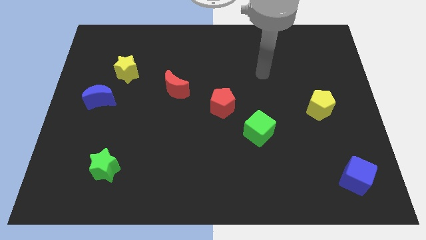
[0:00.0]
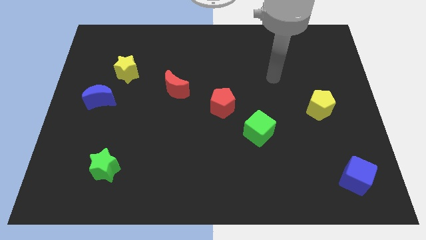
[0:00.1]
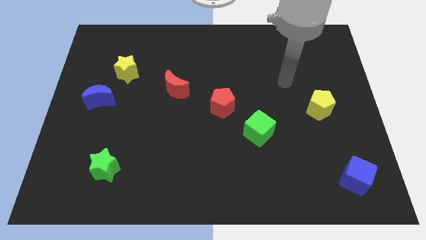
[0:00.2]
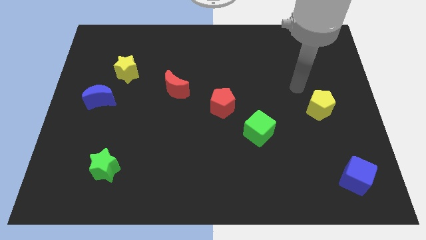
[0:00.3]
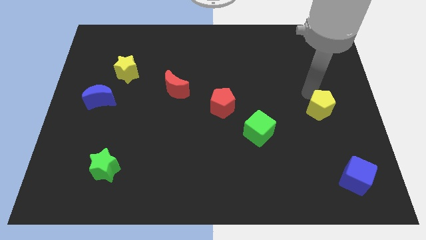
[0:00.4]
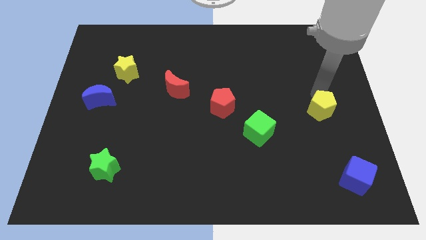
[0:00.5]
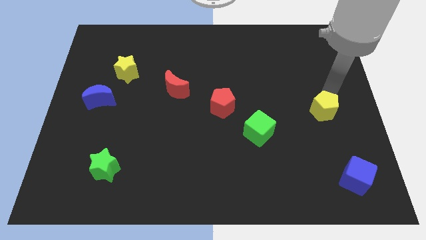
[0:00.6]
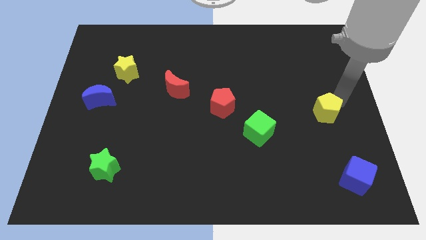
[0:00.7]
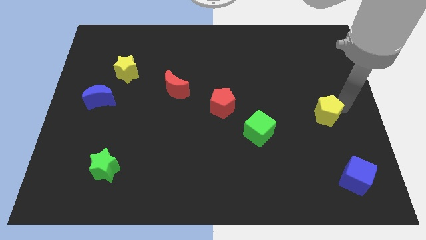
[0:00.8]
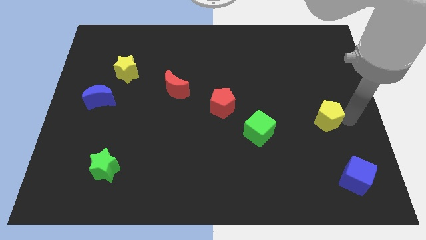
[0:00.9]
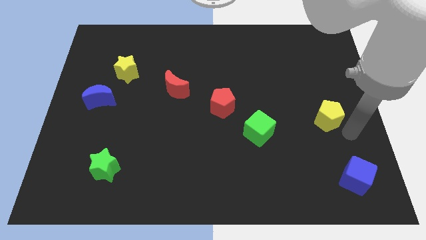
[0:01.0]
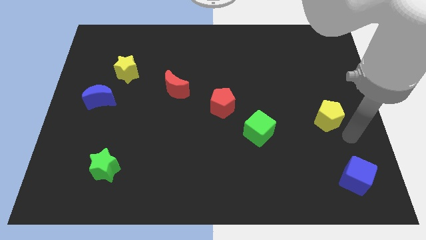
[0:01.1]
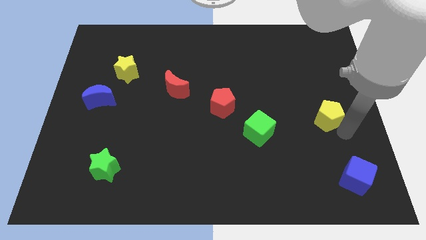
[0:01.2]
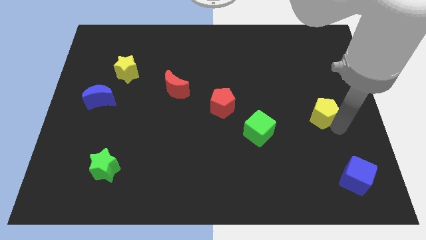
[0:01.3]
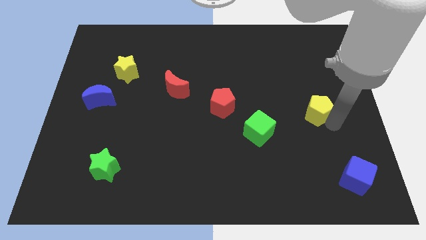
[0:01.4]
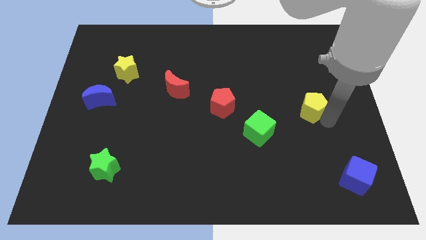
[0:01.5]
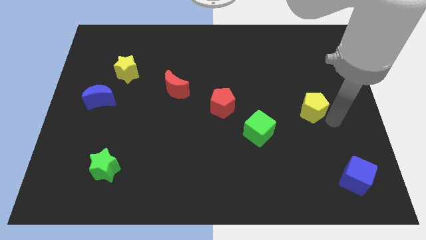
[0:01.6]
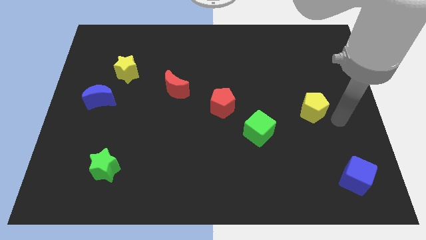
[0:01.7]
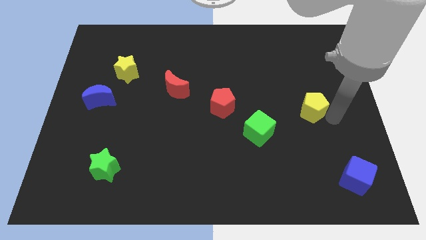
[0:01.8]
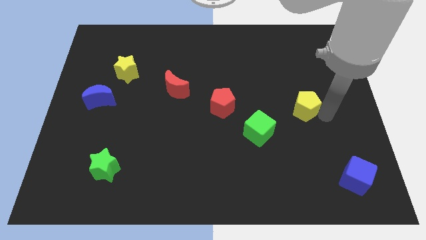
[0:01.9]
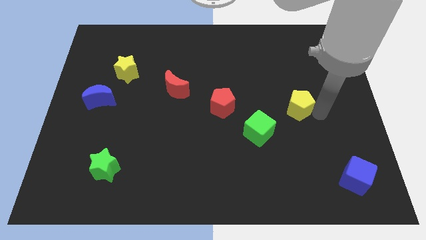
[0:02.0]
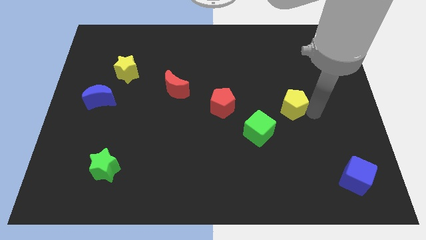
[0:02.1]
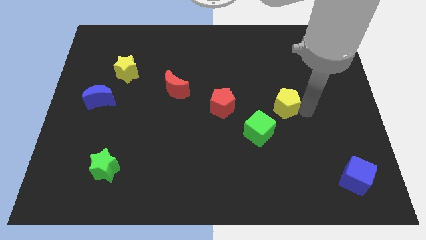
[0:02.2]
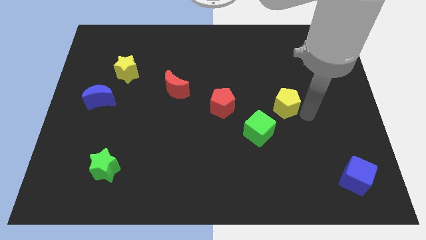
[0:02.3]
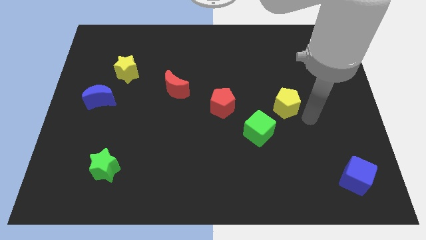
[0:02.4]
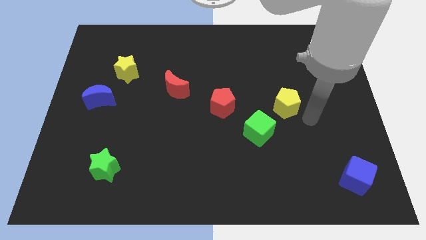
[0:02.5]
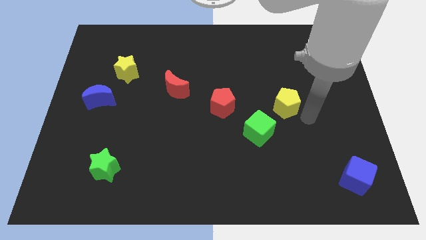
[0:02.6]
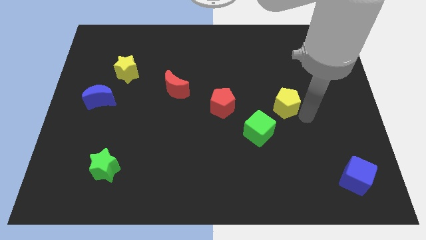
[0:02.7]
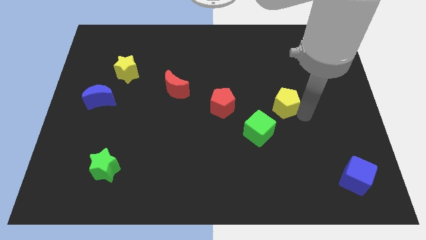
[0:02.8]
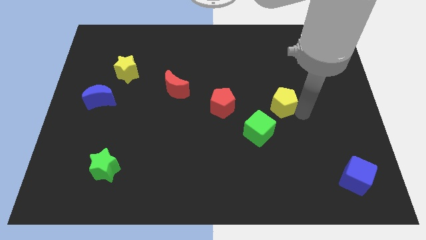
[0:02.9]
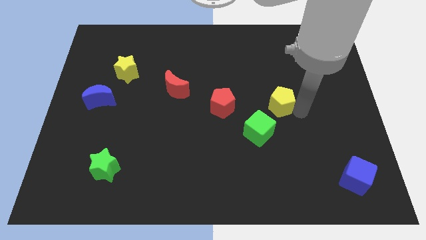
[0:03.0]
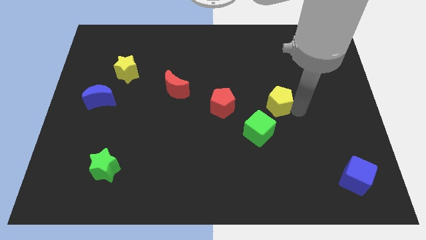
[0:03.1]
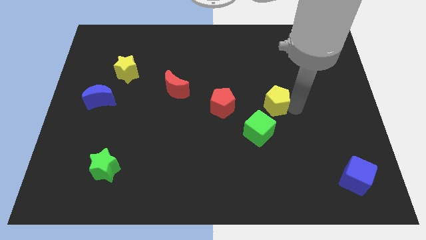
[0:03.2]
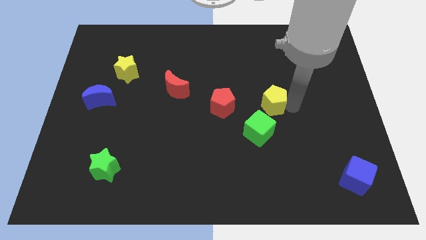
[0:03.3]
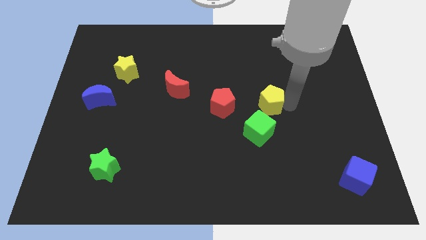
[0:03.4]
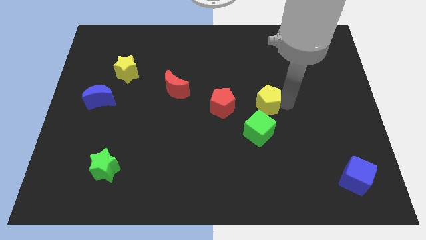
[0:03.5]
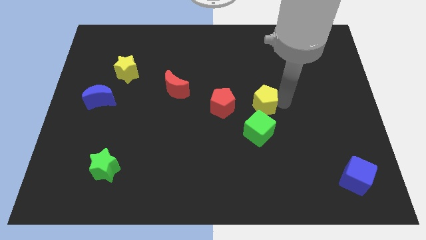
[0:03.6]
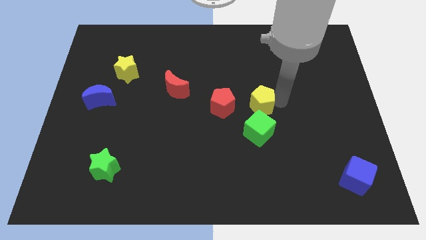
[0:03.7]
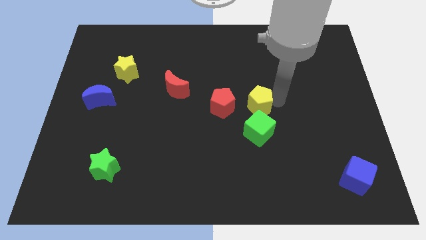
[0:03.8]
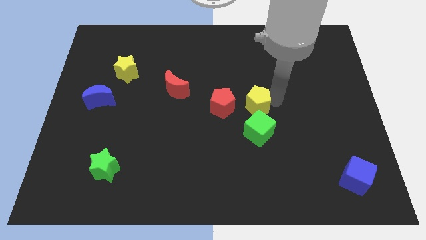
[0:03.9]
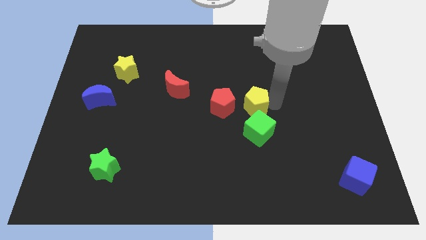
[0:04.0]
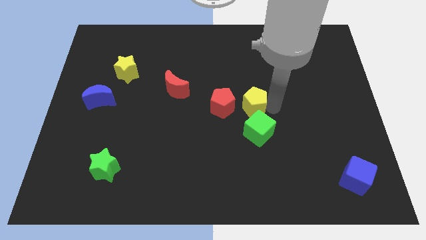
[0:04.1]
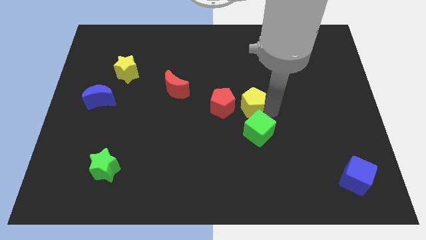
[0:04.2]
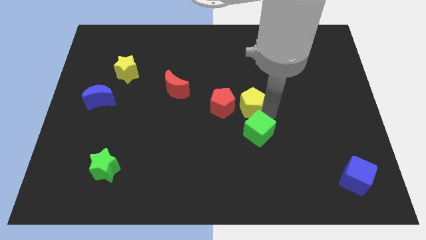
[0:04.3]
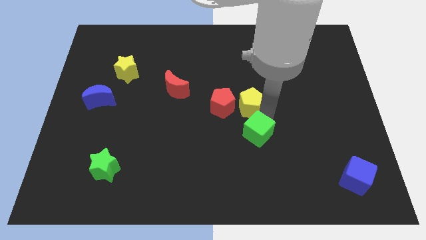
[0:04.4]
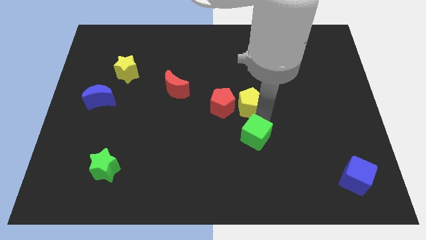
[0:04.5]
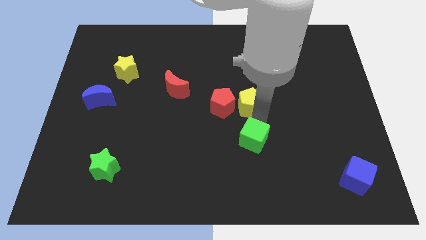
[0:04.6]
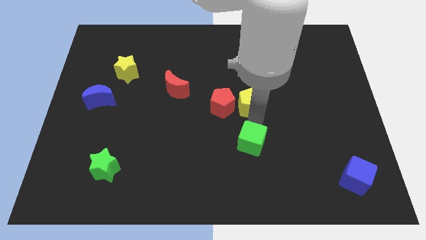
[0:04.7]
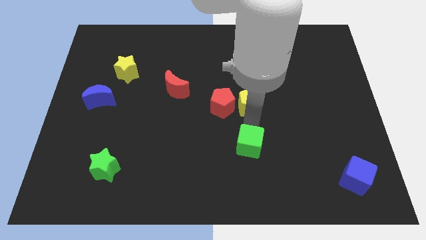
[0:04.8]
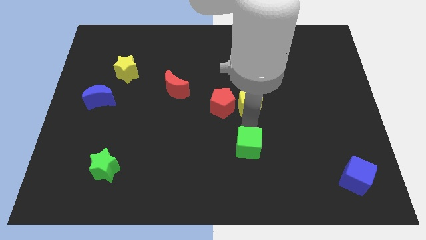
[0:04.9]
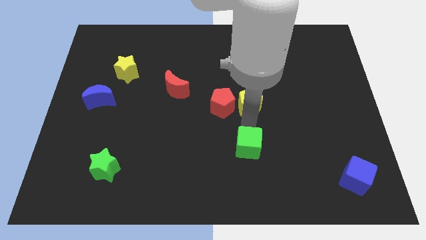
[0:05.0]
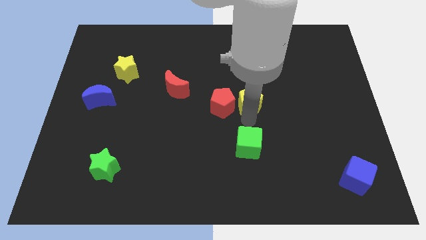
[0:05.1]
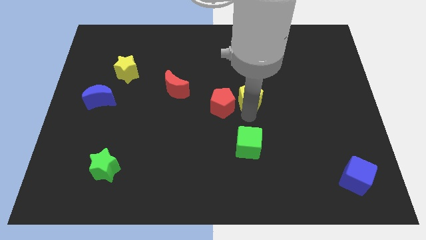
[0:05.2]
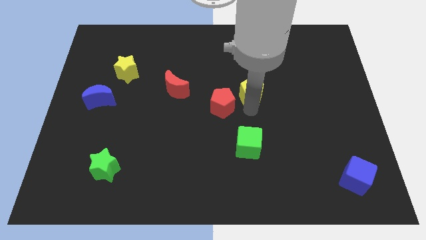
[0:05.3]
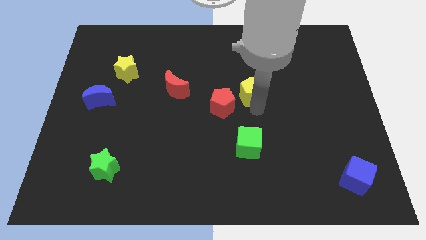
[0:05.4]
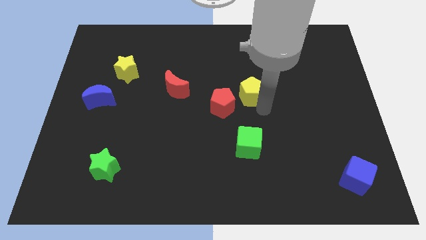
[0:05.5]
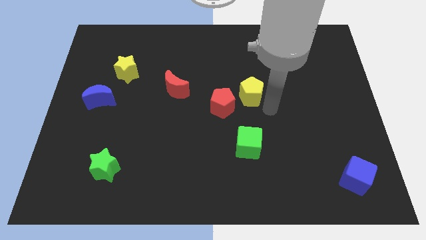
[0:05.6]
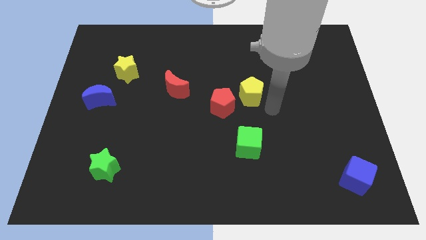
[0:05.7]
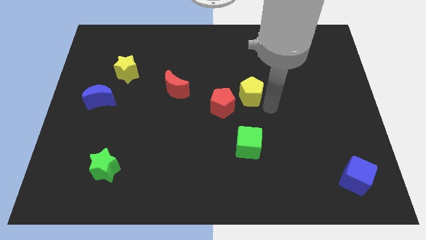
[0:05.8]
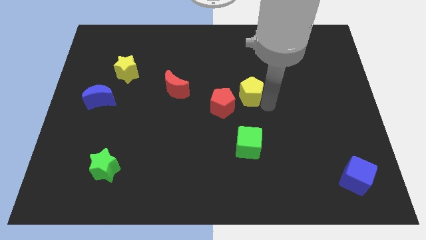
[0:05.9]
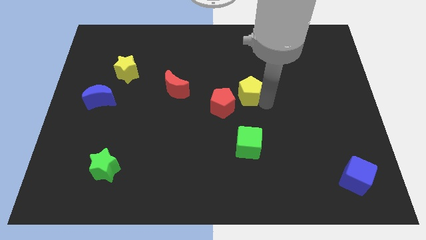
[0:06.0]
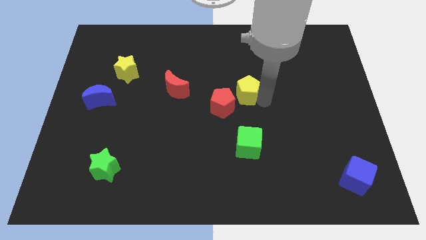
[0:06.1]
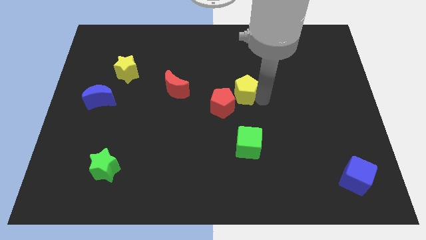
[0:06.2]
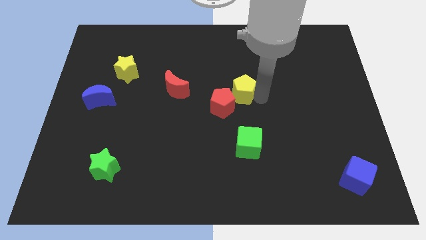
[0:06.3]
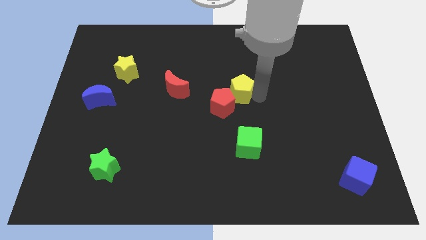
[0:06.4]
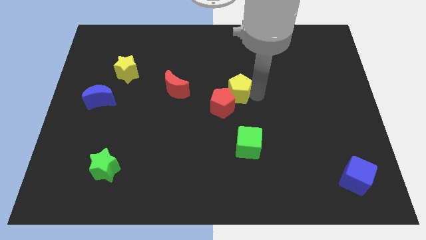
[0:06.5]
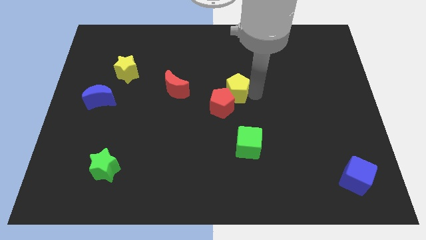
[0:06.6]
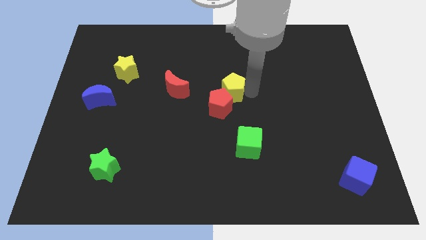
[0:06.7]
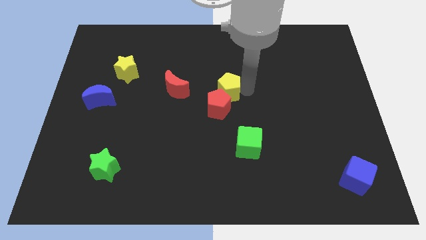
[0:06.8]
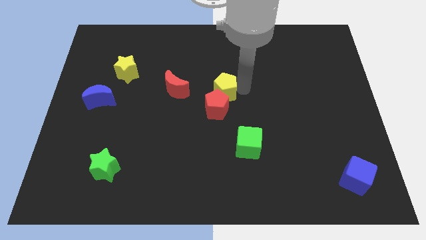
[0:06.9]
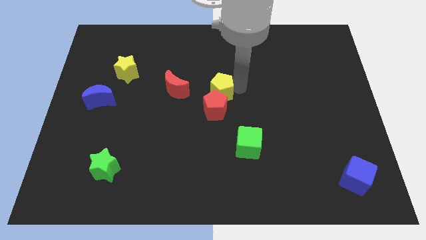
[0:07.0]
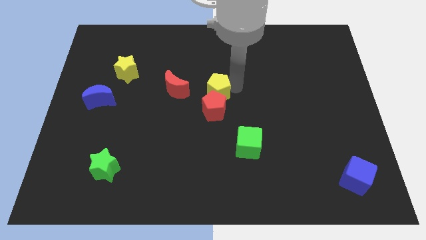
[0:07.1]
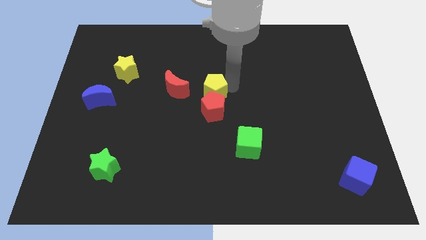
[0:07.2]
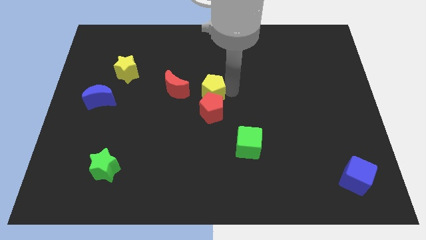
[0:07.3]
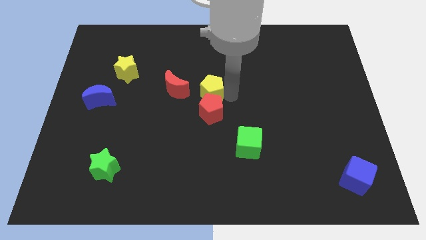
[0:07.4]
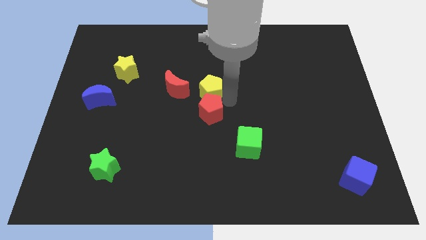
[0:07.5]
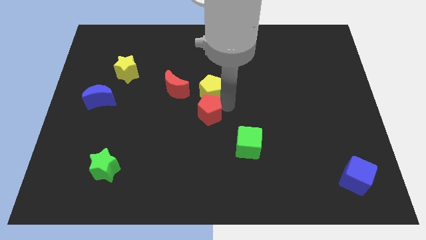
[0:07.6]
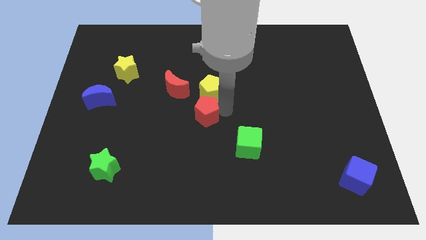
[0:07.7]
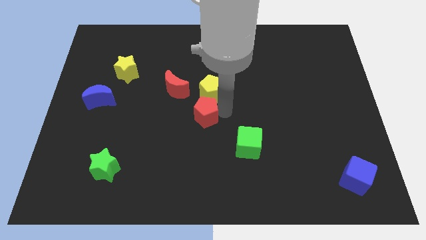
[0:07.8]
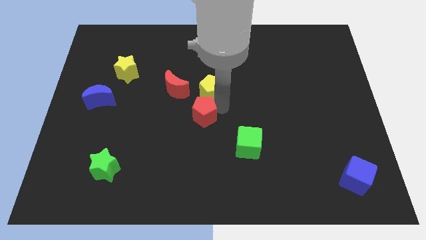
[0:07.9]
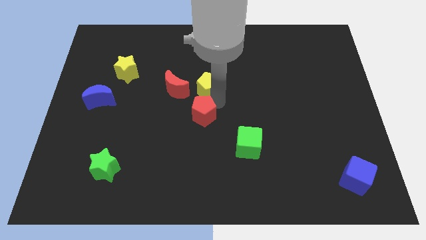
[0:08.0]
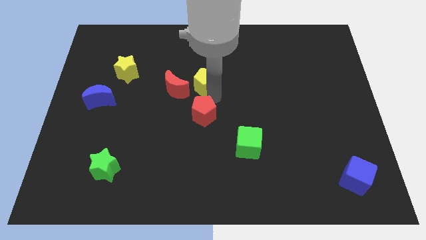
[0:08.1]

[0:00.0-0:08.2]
push the yellow pentagon diagonally up and to the right of the red moon

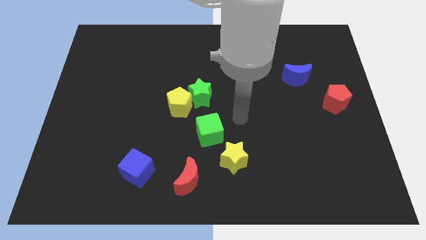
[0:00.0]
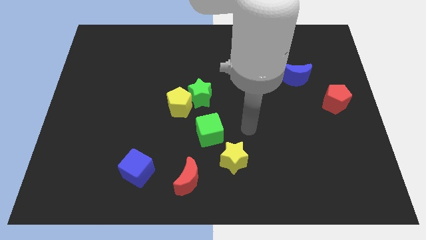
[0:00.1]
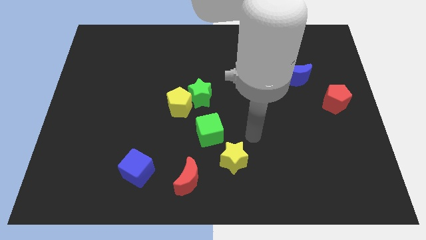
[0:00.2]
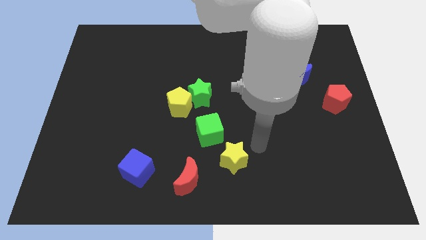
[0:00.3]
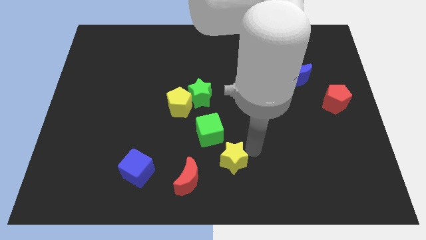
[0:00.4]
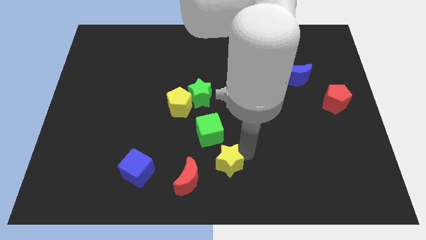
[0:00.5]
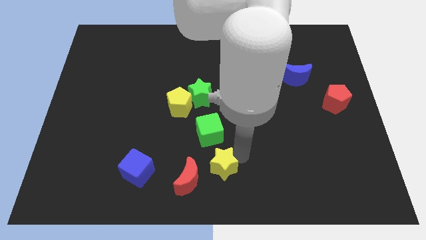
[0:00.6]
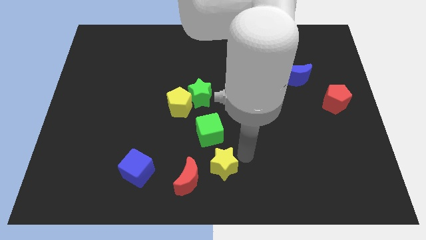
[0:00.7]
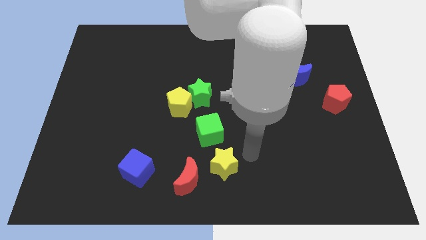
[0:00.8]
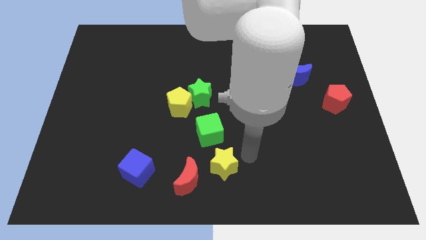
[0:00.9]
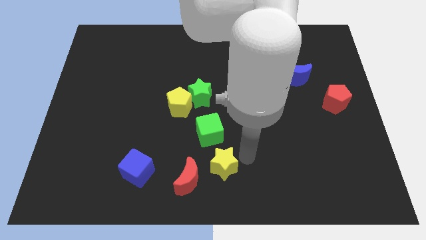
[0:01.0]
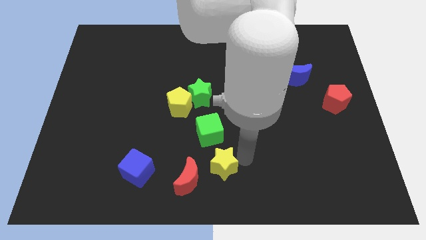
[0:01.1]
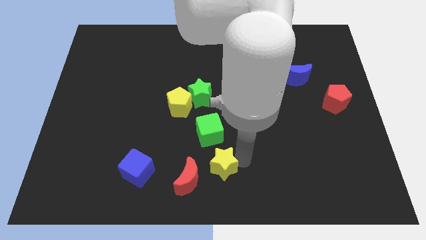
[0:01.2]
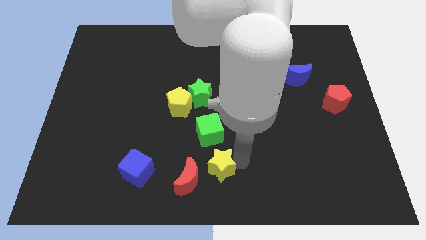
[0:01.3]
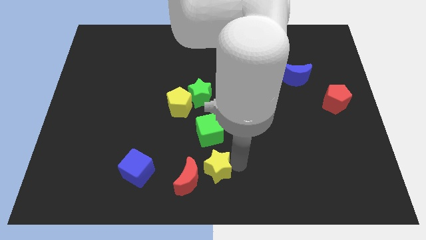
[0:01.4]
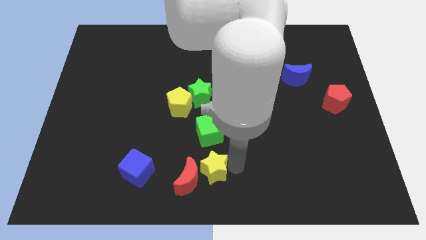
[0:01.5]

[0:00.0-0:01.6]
move the yellow star to the right of the blue cube
